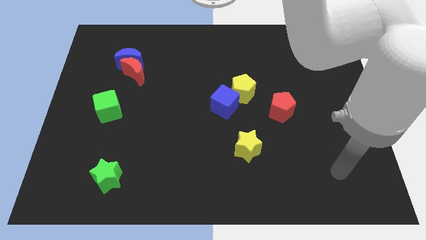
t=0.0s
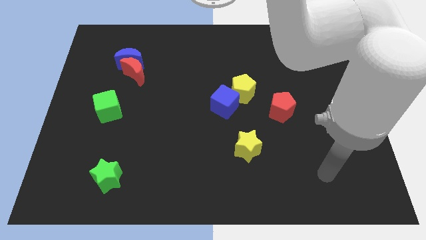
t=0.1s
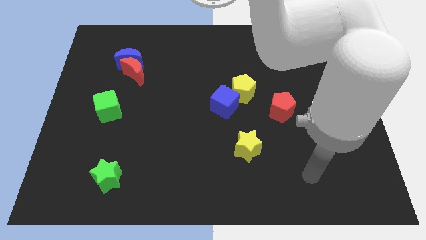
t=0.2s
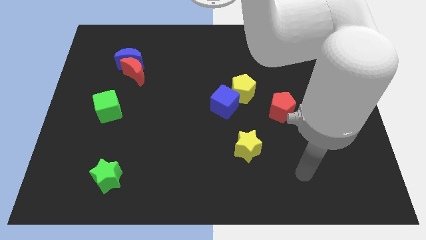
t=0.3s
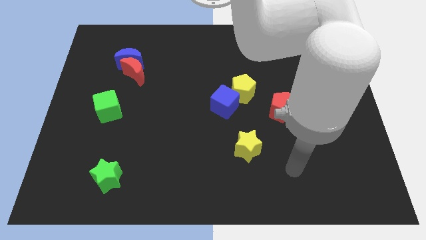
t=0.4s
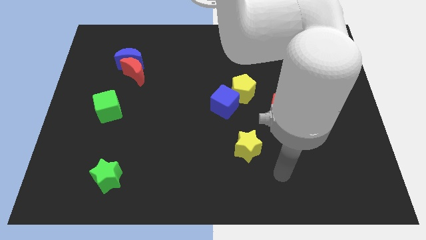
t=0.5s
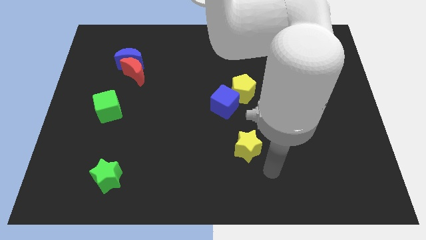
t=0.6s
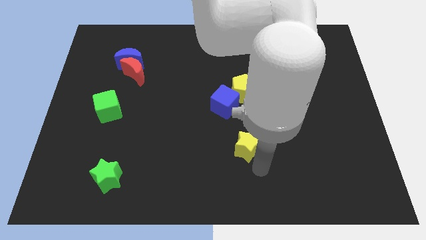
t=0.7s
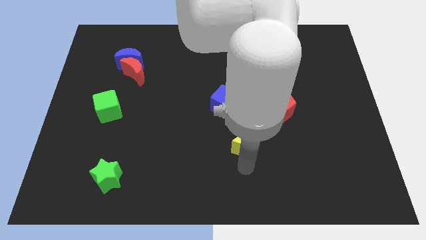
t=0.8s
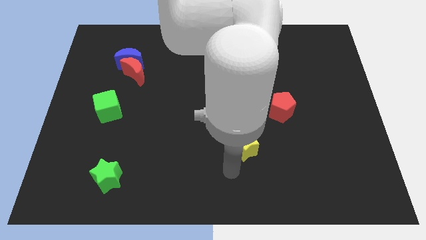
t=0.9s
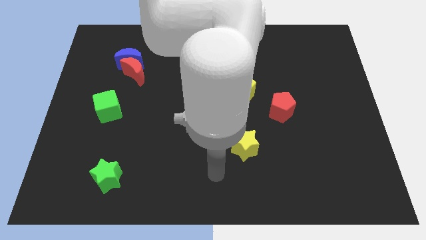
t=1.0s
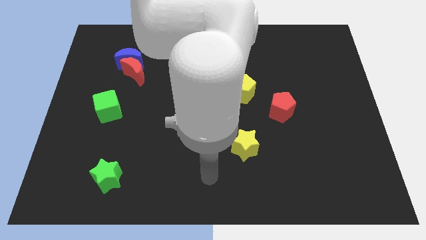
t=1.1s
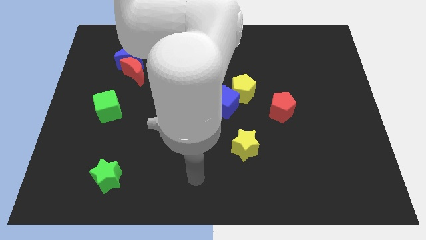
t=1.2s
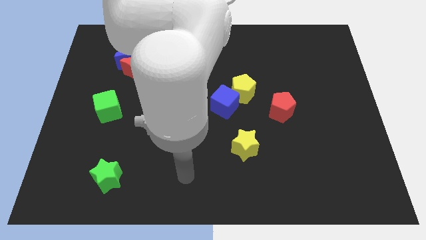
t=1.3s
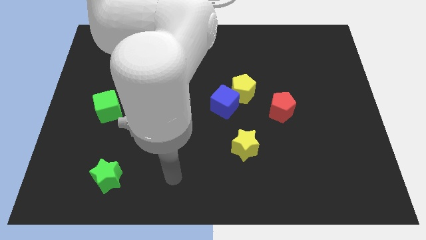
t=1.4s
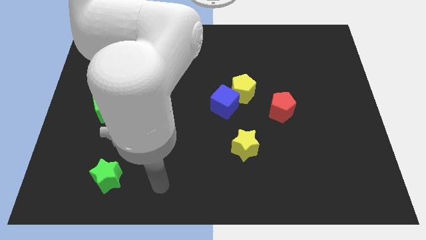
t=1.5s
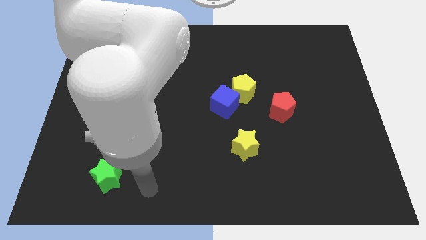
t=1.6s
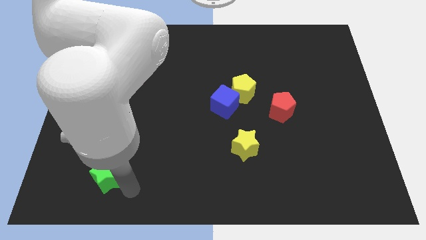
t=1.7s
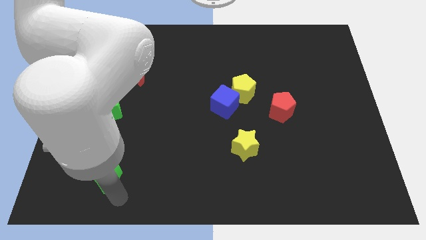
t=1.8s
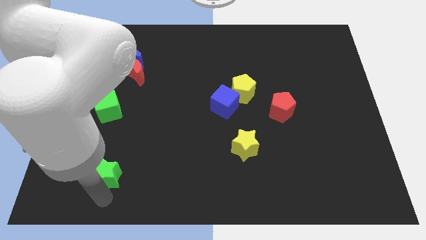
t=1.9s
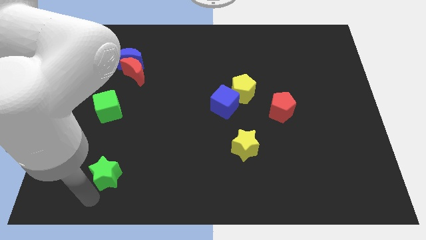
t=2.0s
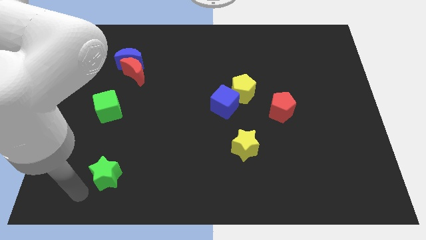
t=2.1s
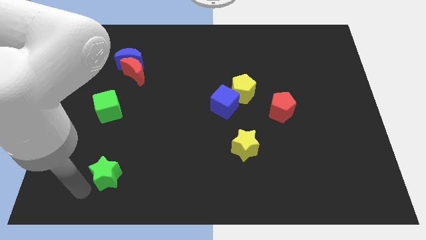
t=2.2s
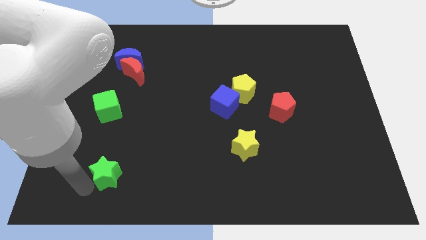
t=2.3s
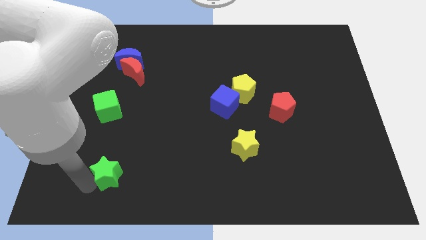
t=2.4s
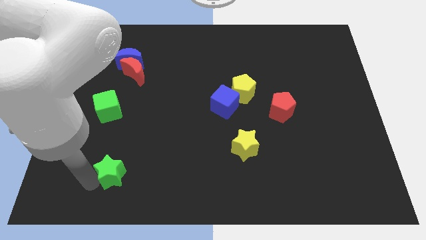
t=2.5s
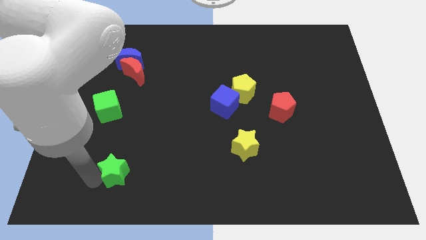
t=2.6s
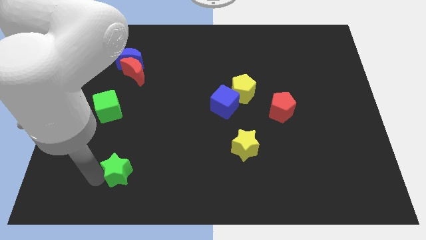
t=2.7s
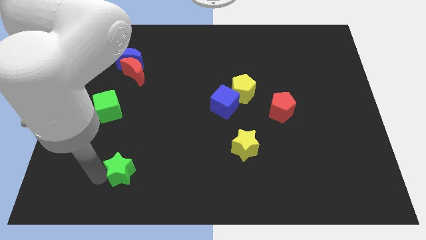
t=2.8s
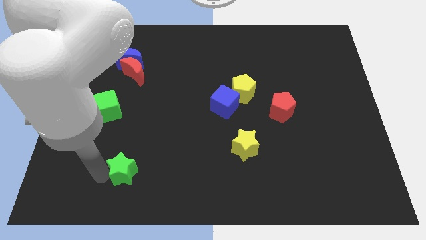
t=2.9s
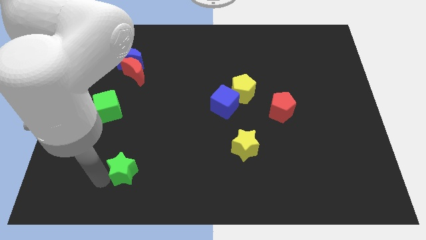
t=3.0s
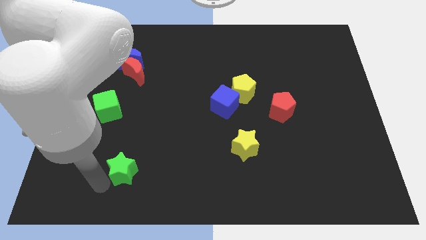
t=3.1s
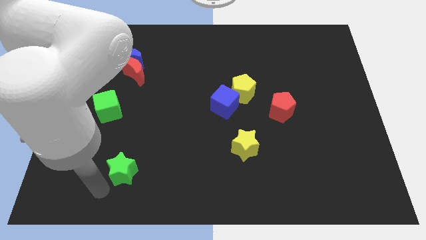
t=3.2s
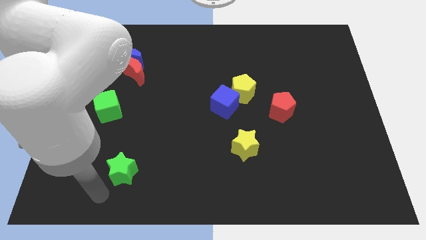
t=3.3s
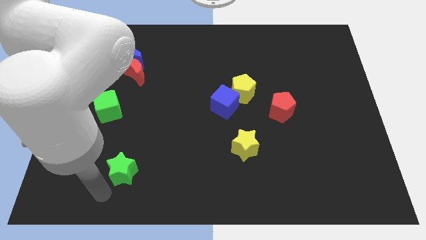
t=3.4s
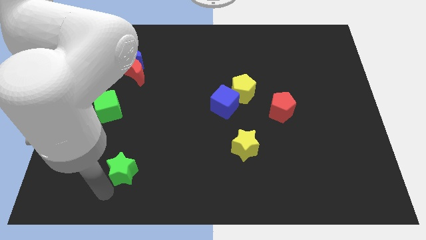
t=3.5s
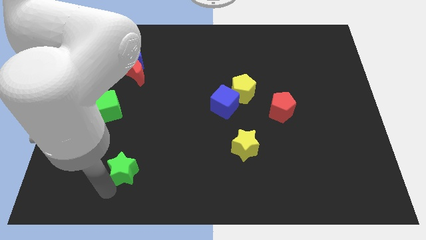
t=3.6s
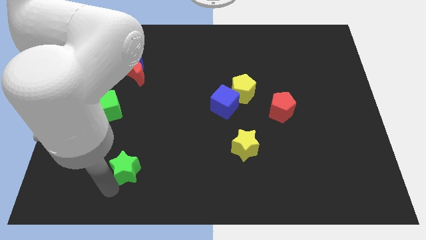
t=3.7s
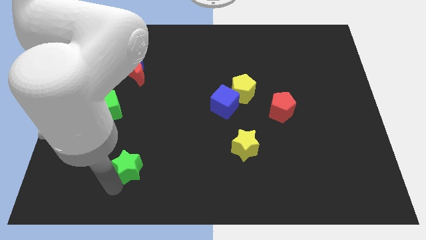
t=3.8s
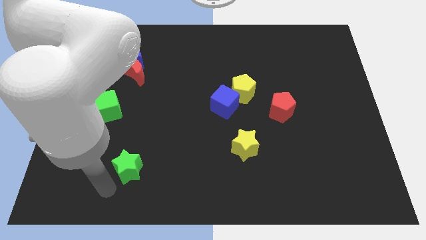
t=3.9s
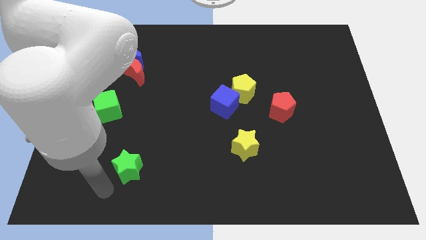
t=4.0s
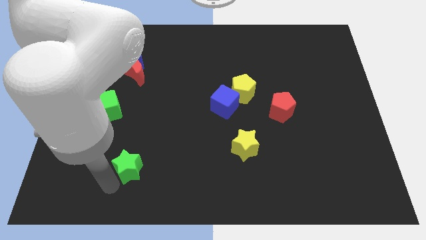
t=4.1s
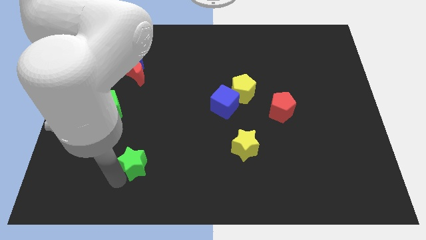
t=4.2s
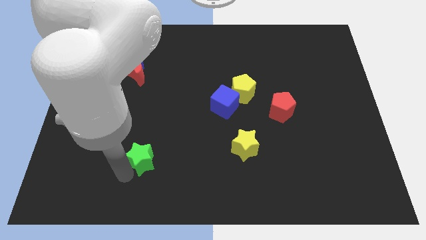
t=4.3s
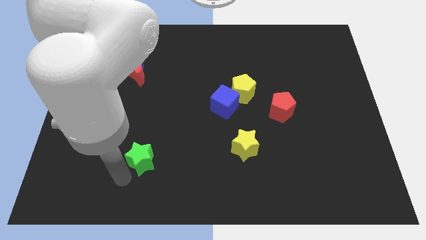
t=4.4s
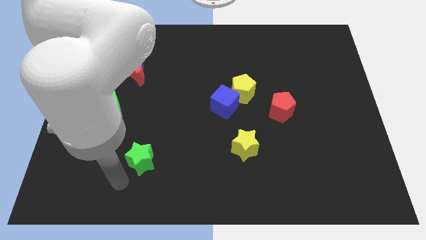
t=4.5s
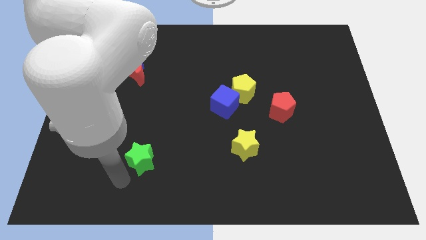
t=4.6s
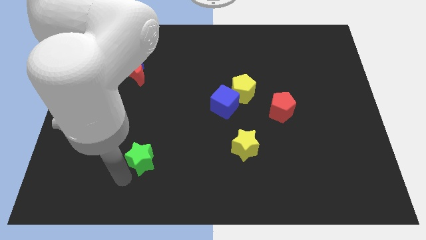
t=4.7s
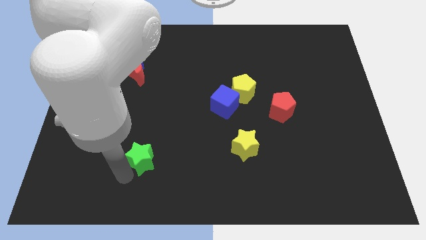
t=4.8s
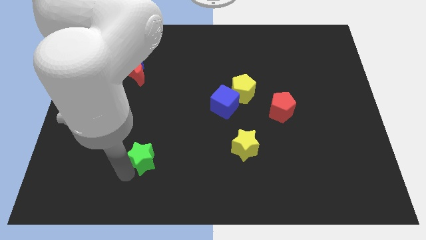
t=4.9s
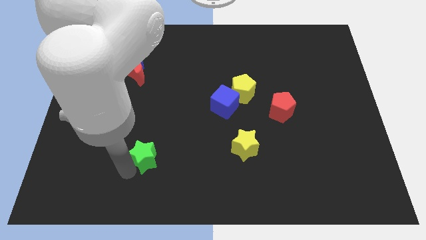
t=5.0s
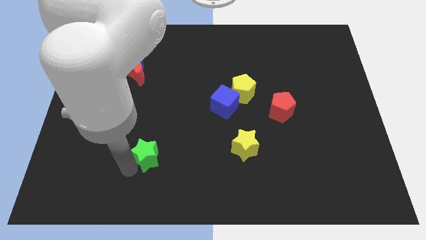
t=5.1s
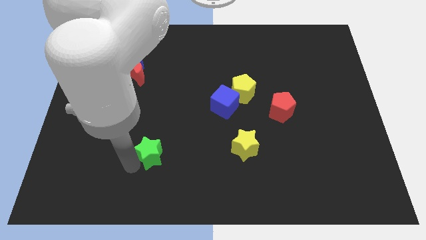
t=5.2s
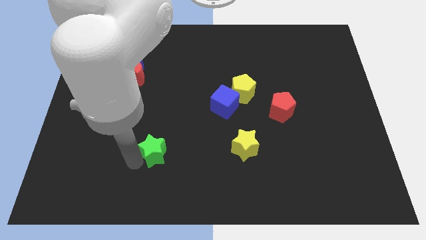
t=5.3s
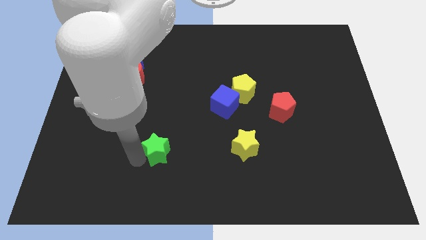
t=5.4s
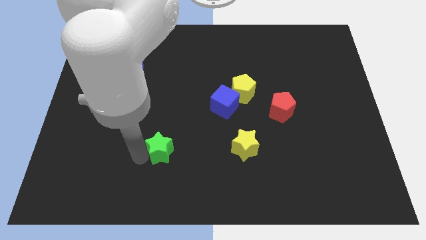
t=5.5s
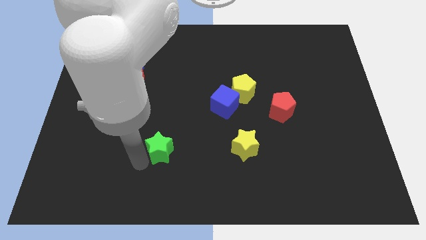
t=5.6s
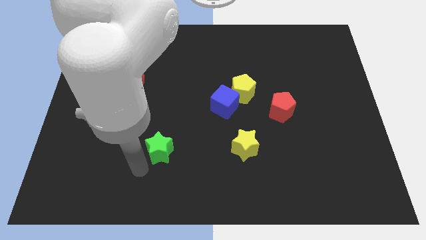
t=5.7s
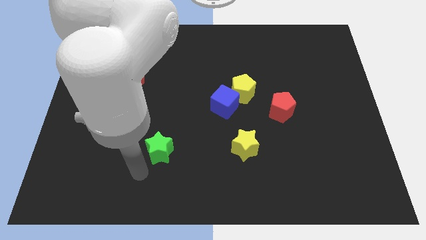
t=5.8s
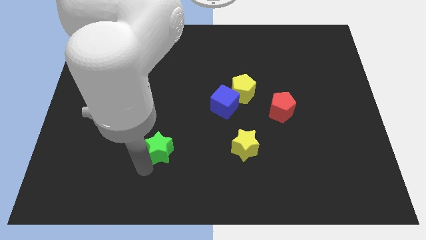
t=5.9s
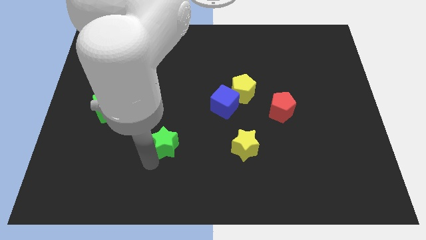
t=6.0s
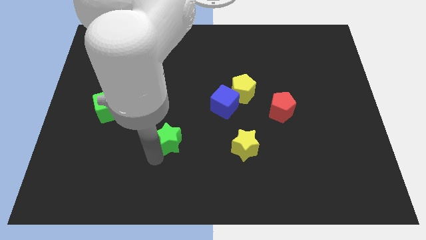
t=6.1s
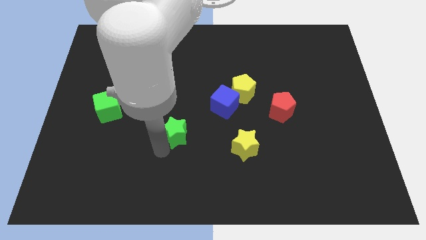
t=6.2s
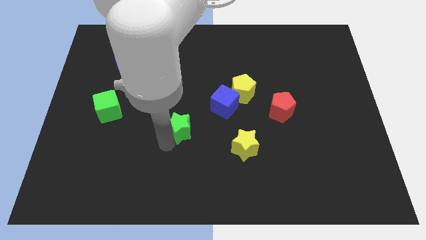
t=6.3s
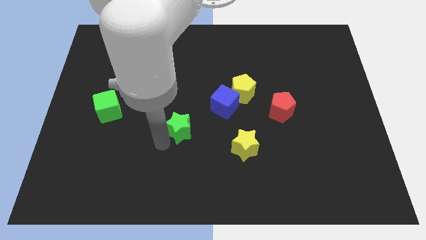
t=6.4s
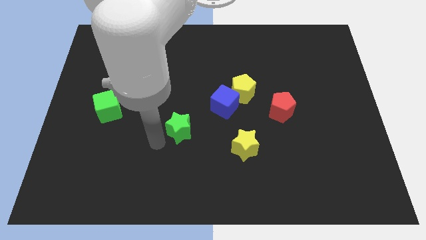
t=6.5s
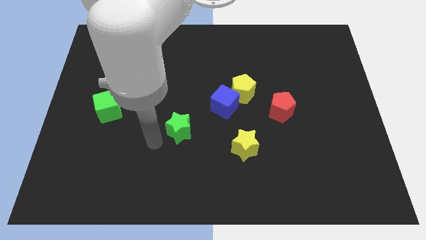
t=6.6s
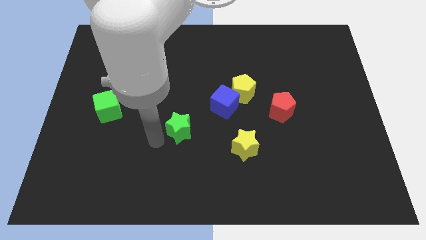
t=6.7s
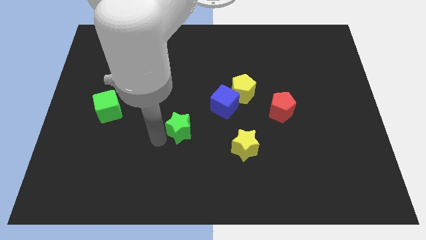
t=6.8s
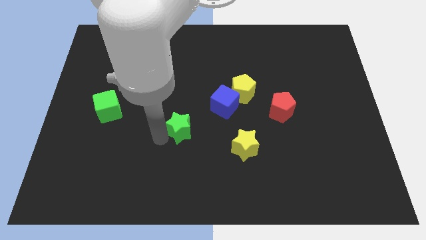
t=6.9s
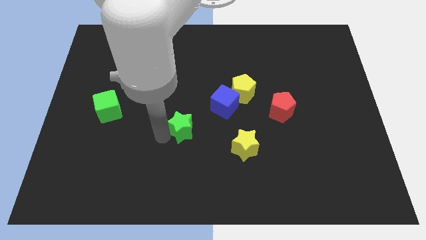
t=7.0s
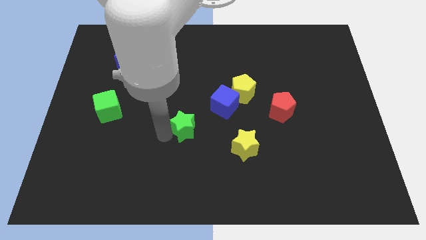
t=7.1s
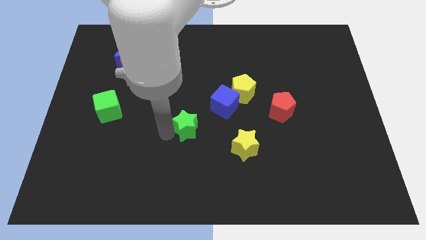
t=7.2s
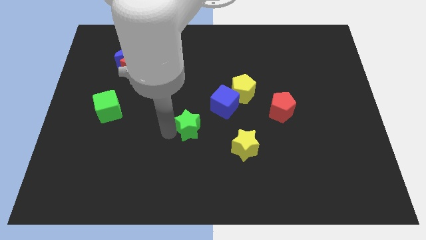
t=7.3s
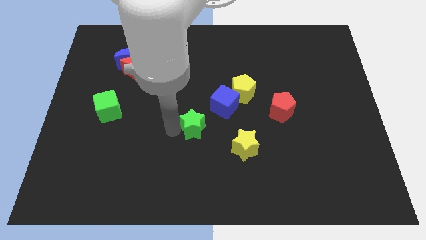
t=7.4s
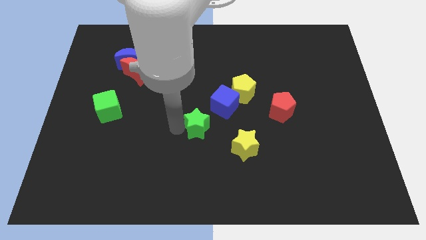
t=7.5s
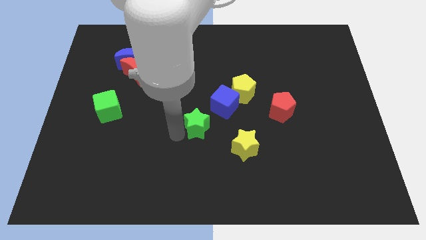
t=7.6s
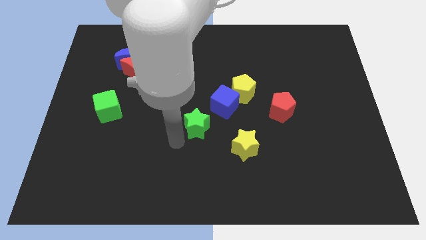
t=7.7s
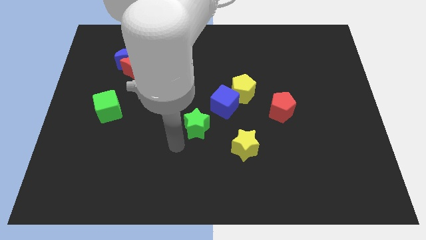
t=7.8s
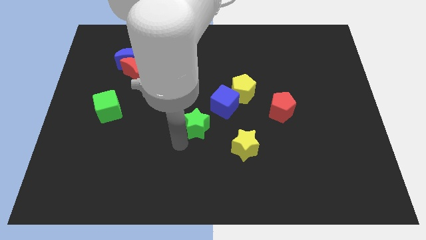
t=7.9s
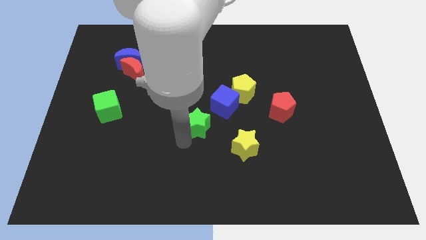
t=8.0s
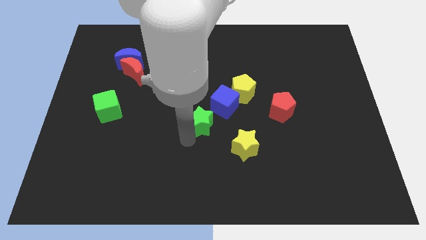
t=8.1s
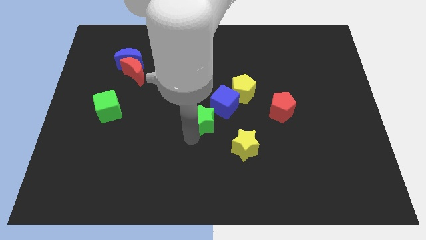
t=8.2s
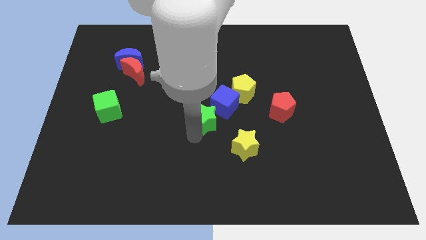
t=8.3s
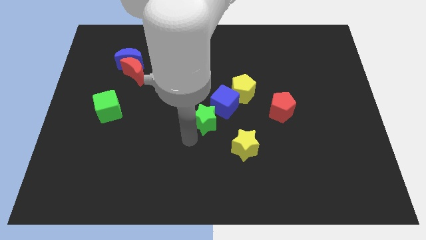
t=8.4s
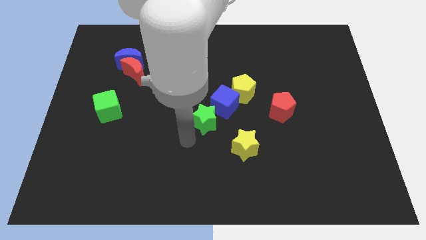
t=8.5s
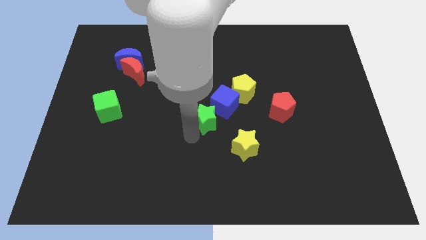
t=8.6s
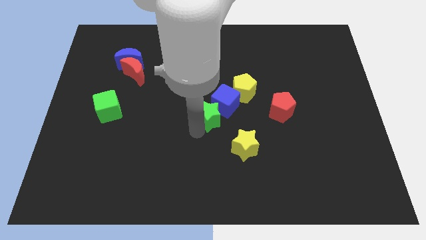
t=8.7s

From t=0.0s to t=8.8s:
push the green star towards the blue cube
